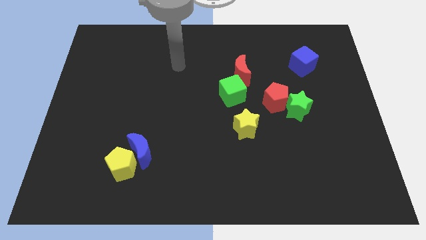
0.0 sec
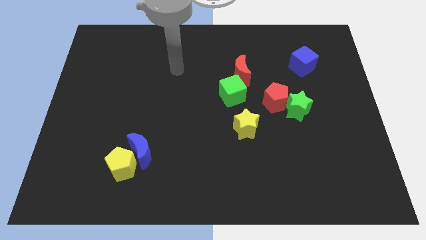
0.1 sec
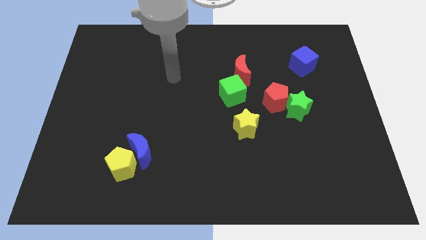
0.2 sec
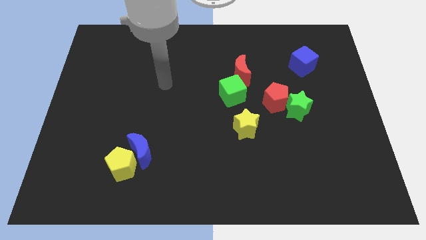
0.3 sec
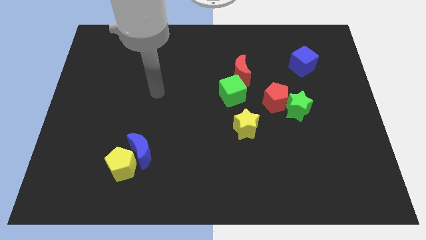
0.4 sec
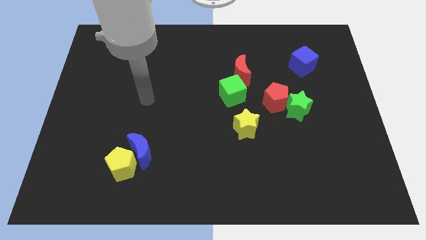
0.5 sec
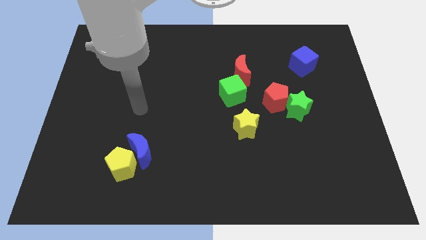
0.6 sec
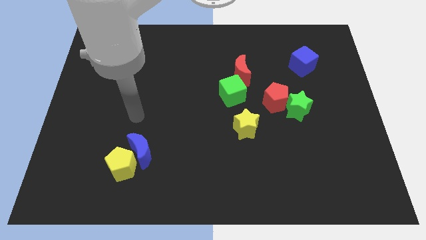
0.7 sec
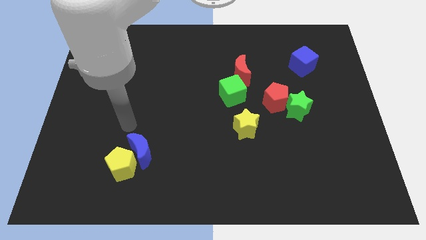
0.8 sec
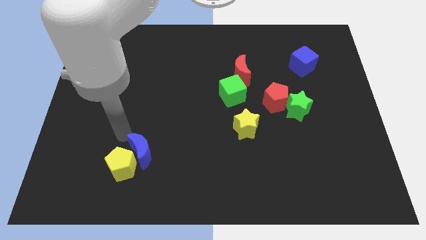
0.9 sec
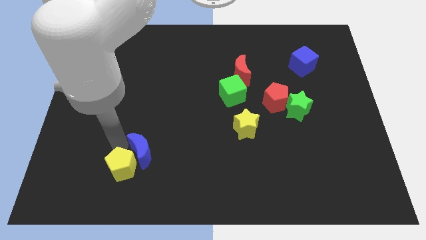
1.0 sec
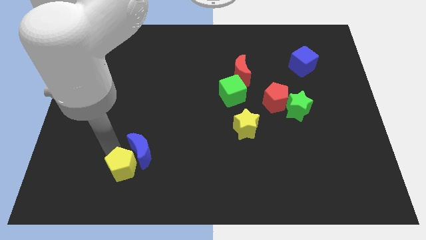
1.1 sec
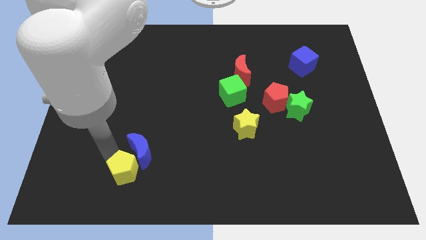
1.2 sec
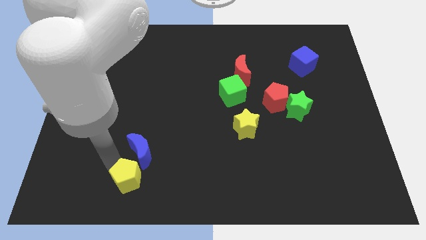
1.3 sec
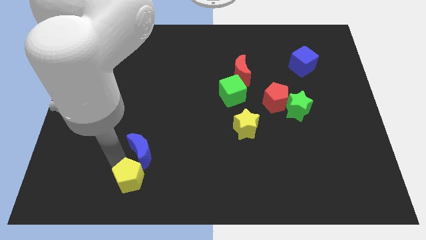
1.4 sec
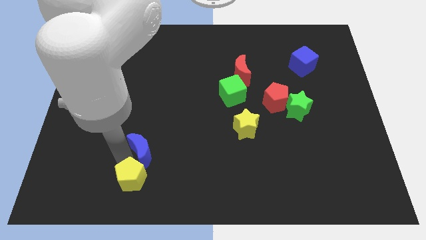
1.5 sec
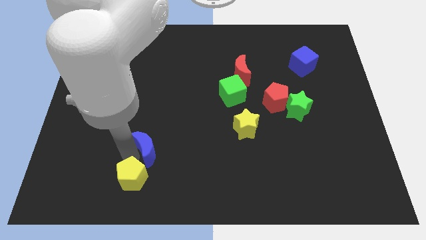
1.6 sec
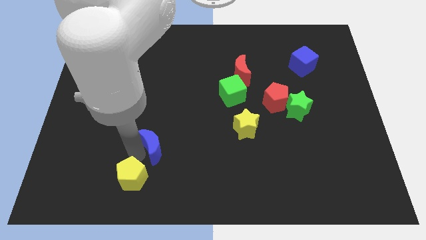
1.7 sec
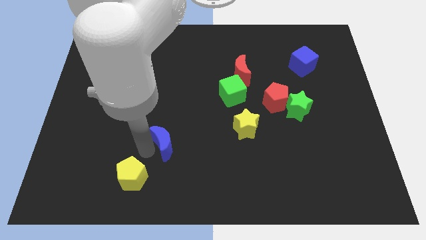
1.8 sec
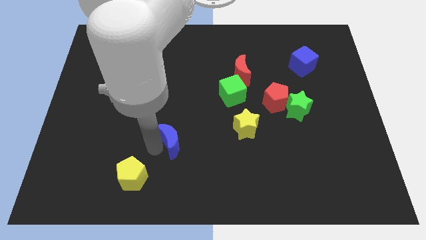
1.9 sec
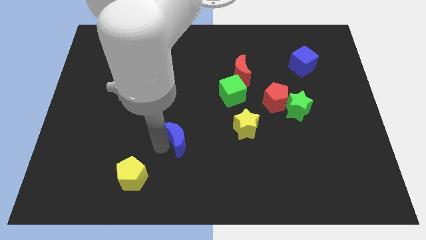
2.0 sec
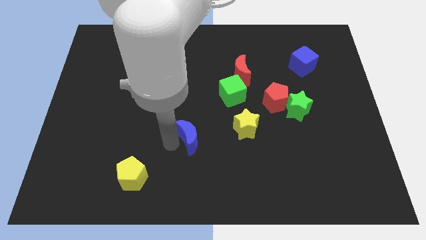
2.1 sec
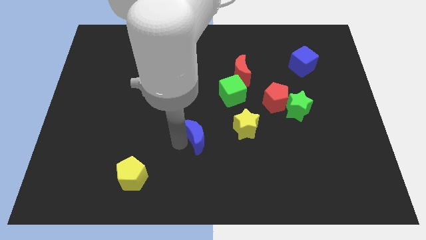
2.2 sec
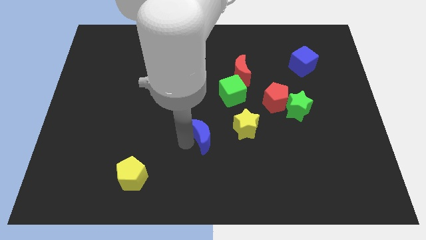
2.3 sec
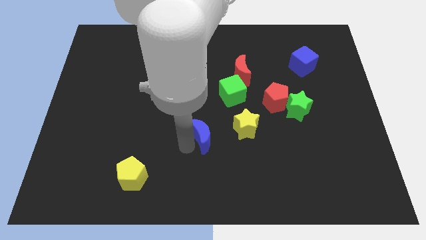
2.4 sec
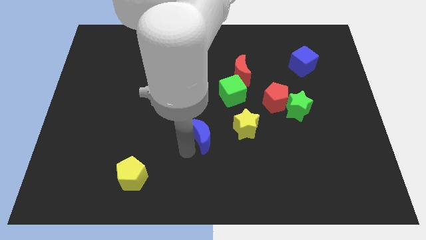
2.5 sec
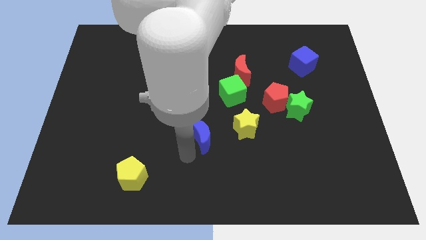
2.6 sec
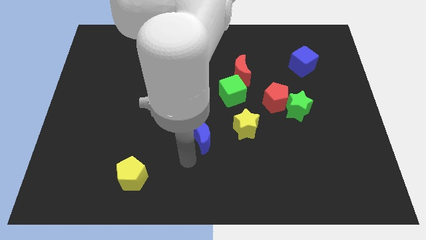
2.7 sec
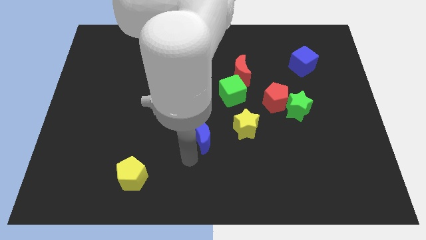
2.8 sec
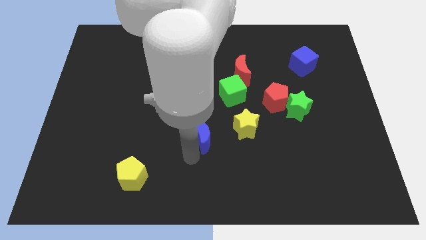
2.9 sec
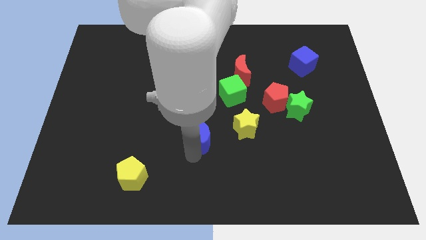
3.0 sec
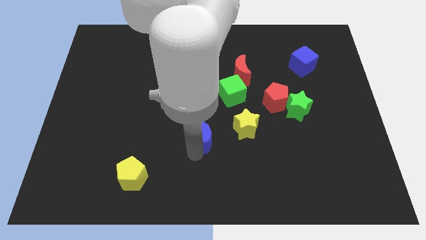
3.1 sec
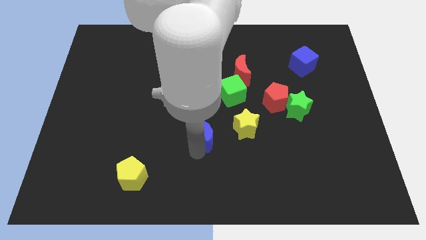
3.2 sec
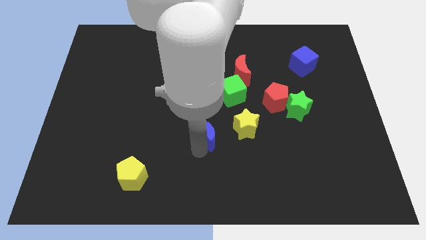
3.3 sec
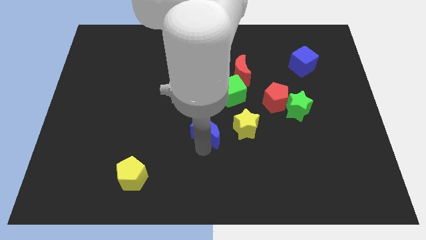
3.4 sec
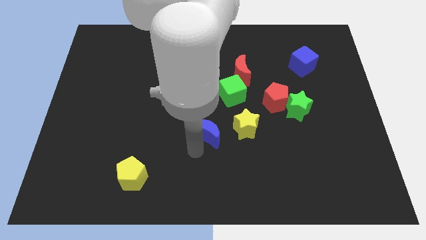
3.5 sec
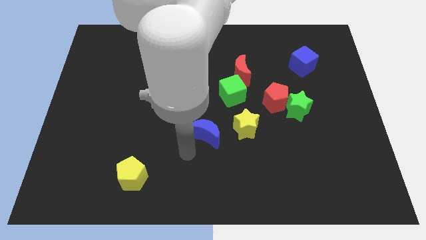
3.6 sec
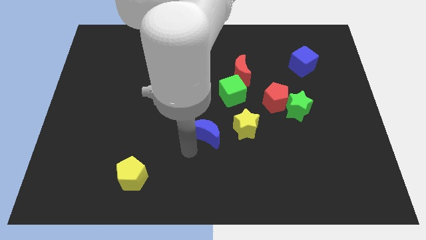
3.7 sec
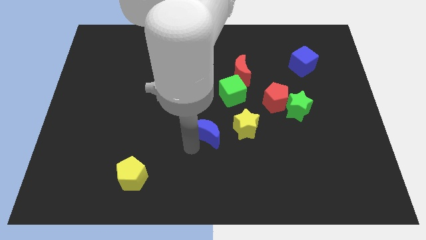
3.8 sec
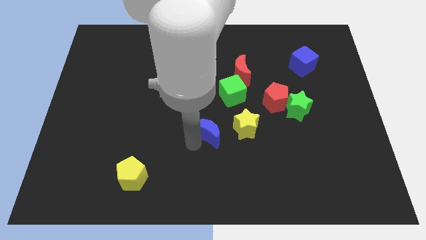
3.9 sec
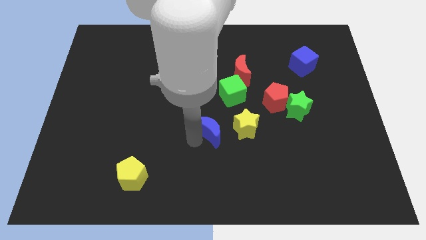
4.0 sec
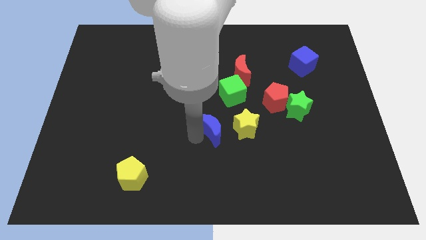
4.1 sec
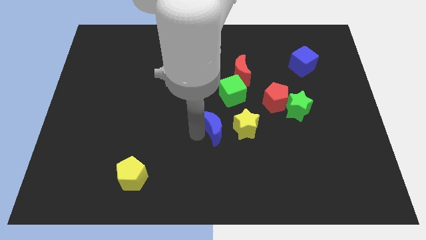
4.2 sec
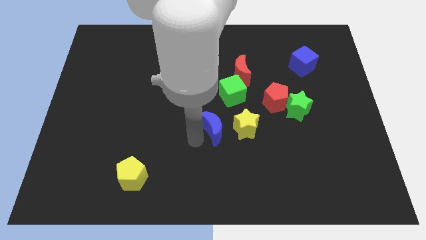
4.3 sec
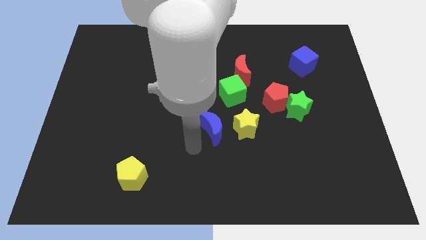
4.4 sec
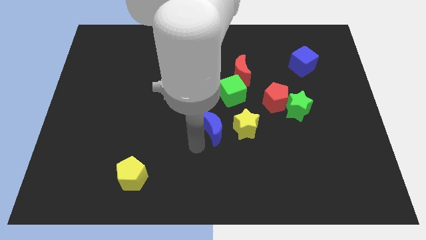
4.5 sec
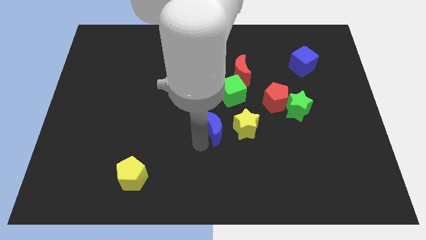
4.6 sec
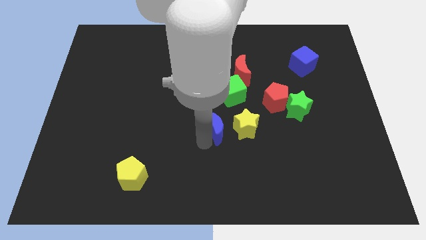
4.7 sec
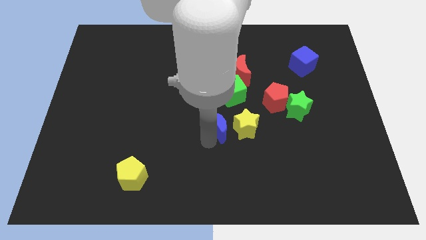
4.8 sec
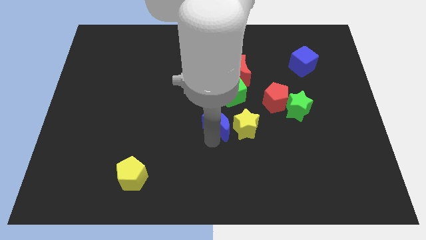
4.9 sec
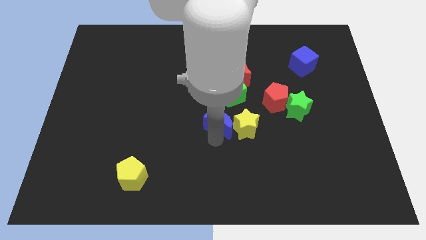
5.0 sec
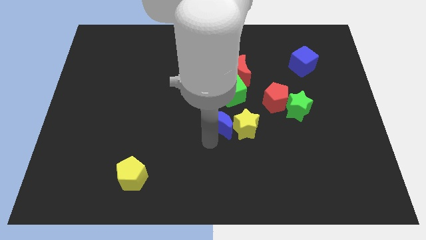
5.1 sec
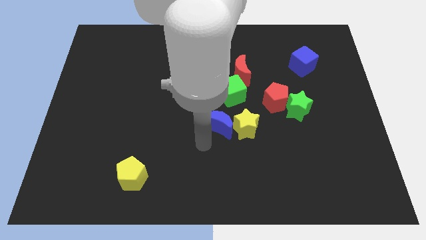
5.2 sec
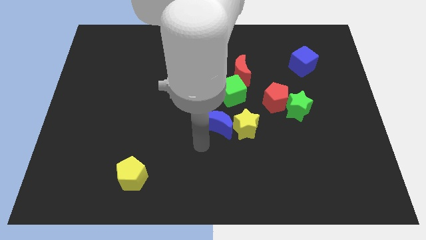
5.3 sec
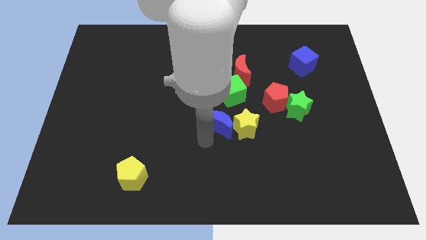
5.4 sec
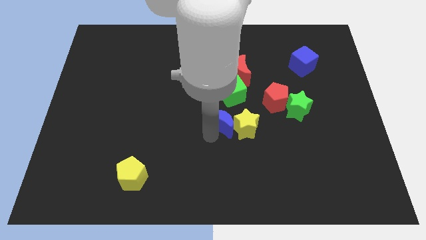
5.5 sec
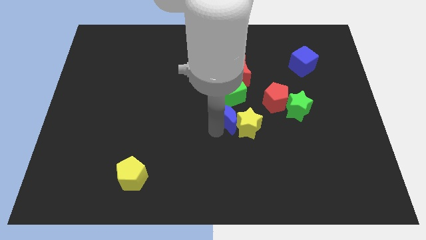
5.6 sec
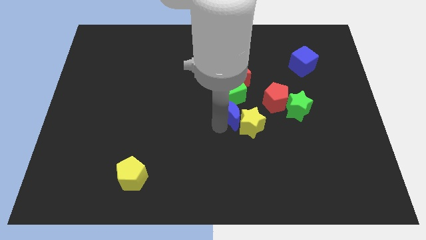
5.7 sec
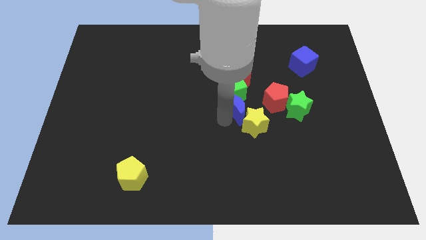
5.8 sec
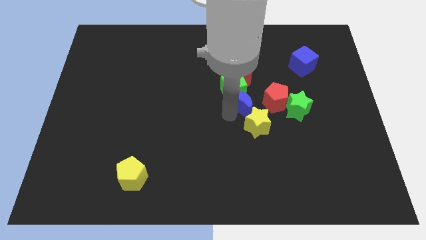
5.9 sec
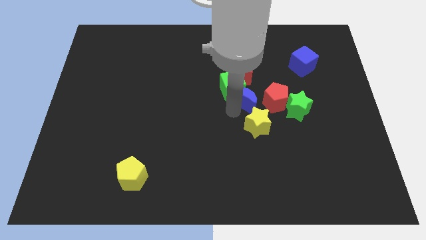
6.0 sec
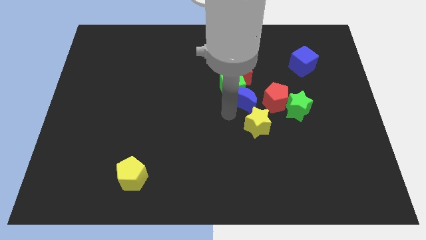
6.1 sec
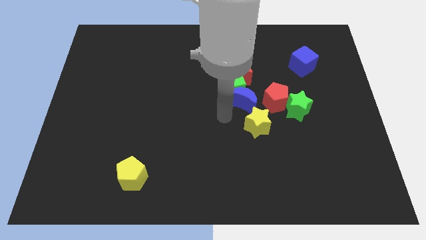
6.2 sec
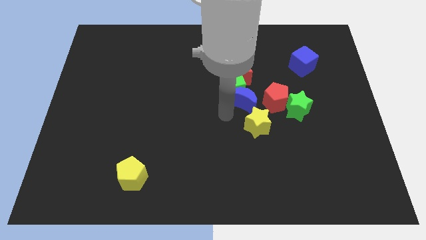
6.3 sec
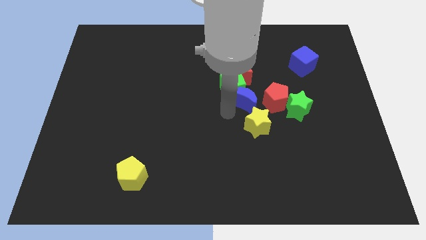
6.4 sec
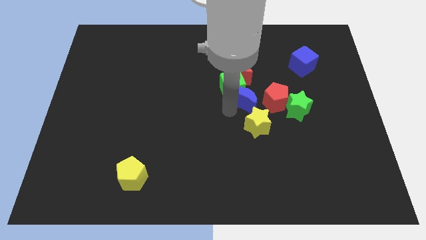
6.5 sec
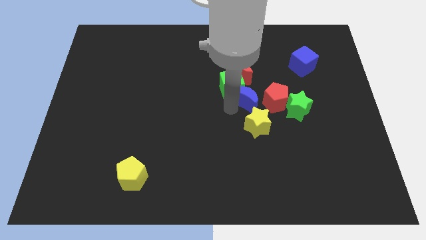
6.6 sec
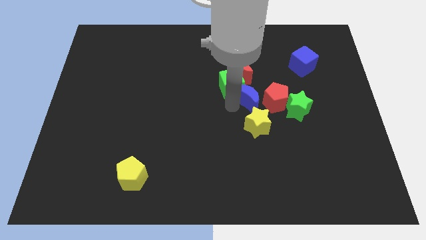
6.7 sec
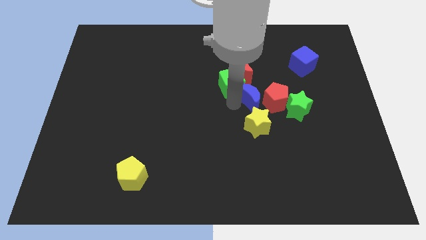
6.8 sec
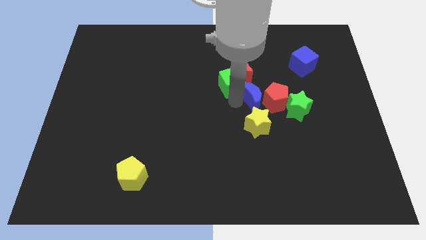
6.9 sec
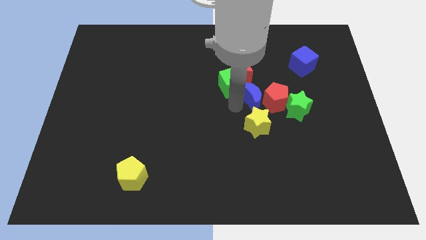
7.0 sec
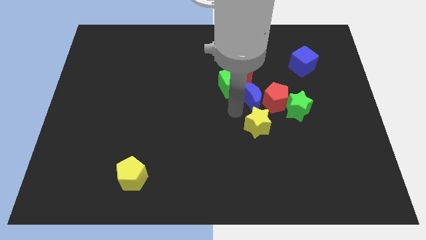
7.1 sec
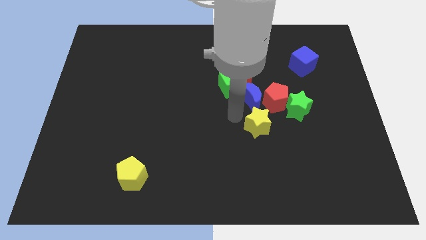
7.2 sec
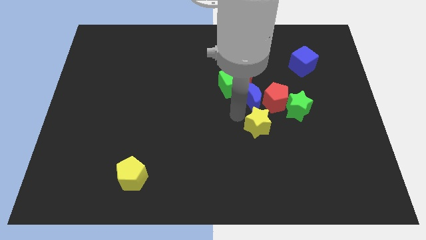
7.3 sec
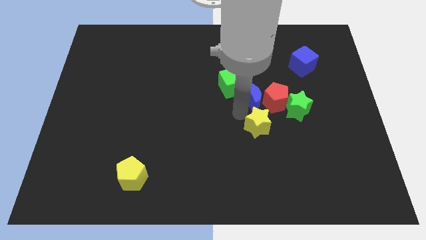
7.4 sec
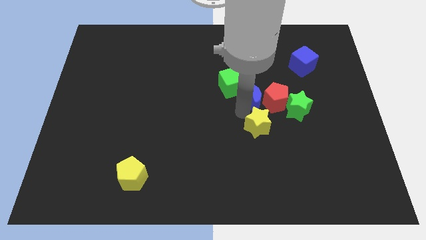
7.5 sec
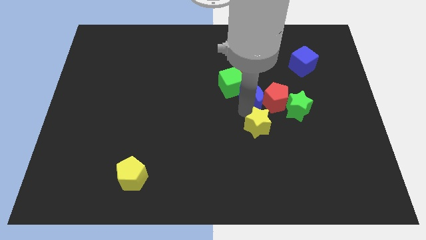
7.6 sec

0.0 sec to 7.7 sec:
move the blue moon diagonally down and to the right of the red moon
